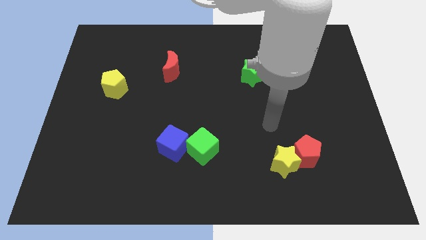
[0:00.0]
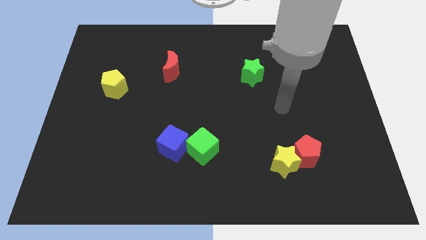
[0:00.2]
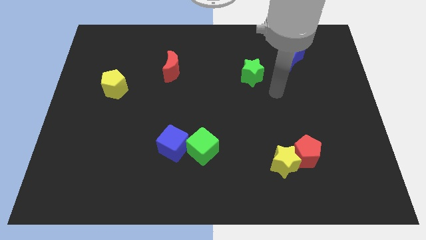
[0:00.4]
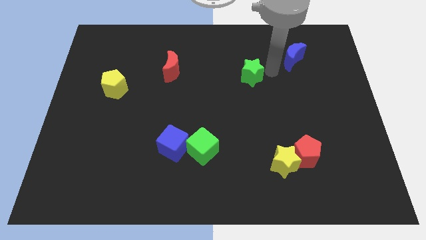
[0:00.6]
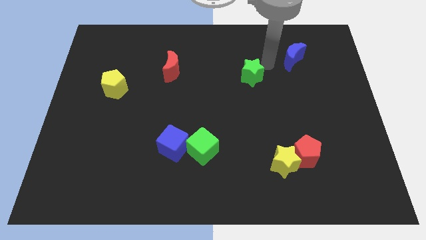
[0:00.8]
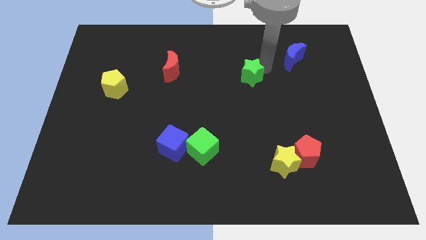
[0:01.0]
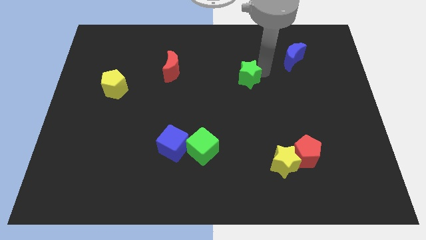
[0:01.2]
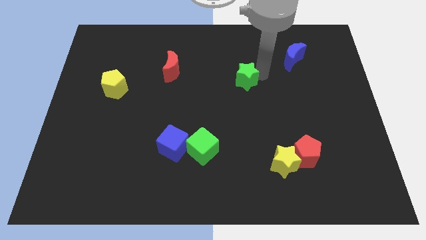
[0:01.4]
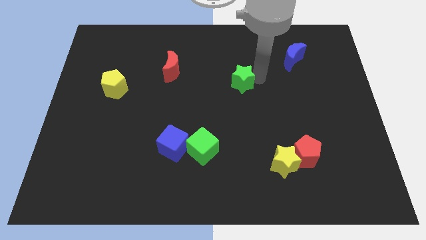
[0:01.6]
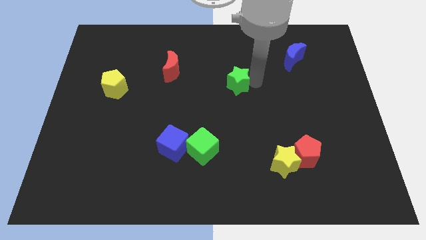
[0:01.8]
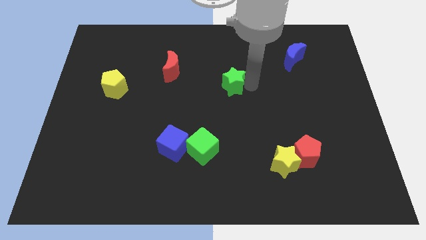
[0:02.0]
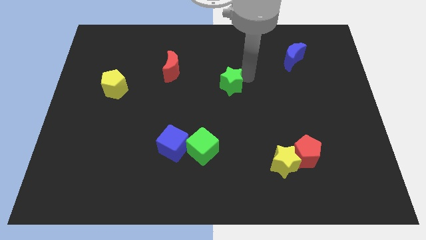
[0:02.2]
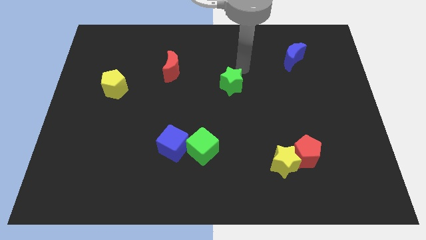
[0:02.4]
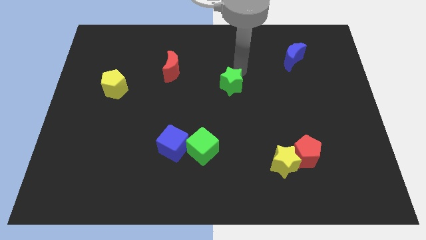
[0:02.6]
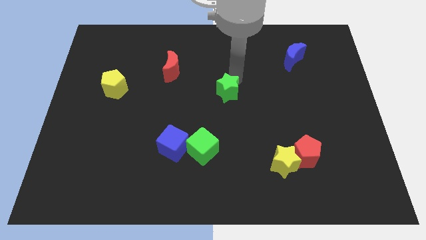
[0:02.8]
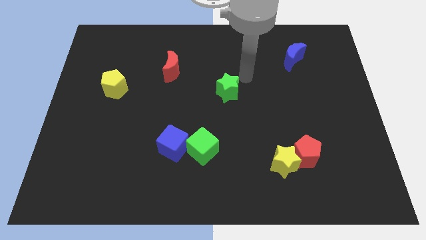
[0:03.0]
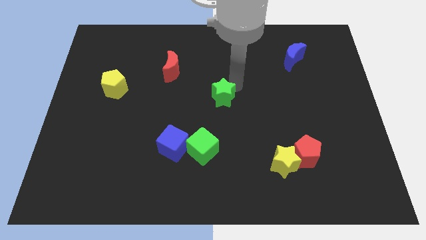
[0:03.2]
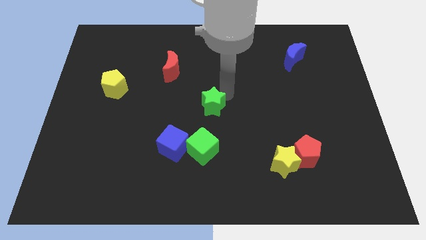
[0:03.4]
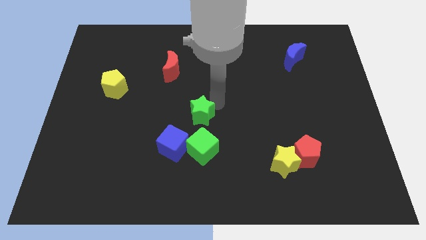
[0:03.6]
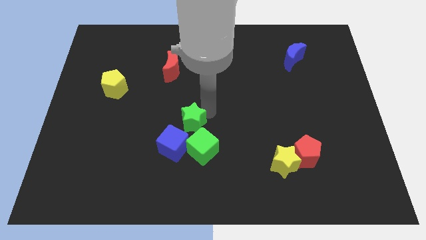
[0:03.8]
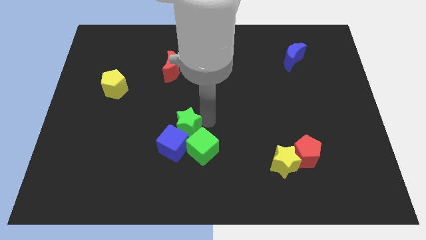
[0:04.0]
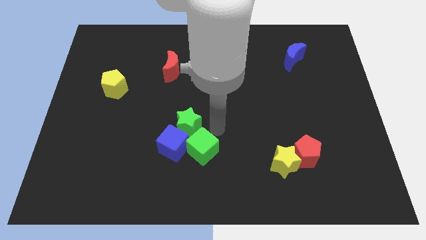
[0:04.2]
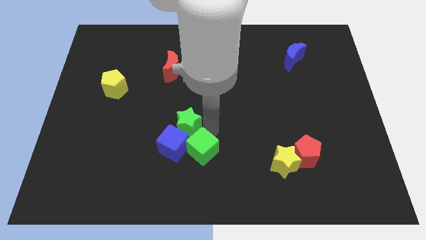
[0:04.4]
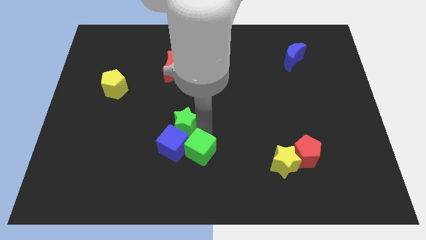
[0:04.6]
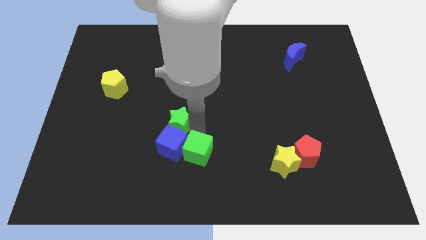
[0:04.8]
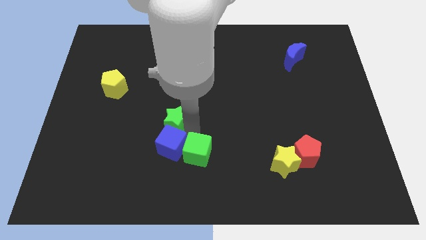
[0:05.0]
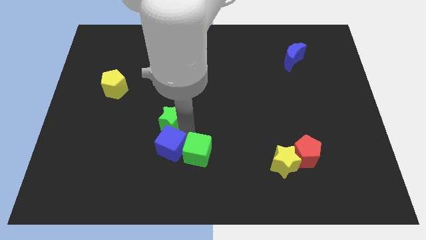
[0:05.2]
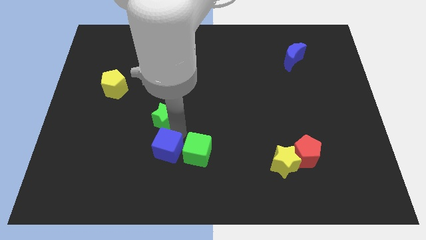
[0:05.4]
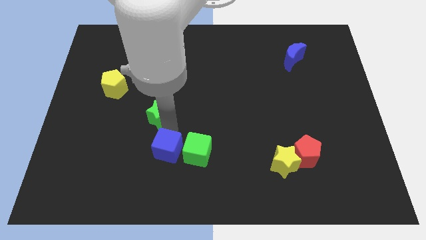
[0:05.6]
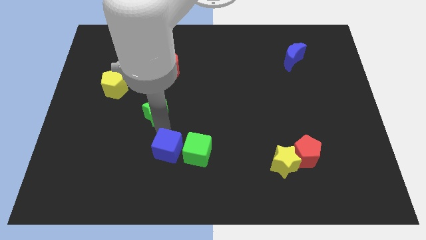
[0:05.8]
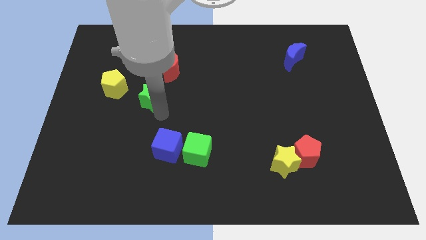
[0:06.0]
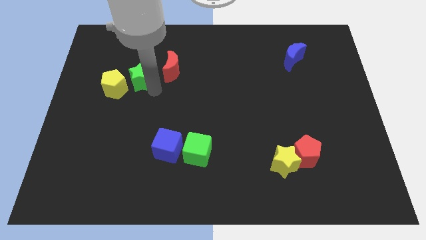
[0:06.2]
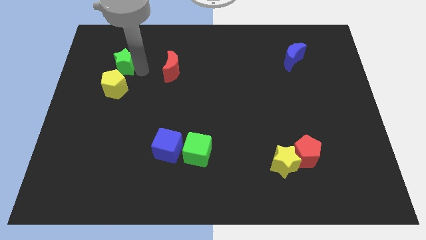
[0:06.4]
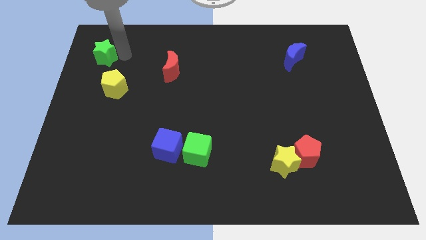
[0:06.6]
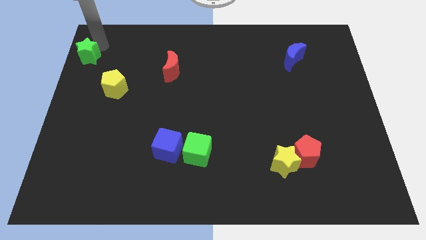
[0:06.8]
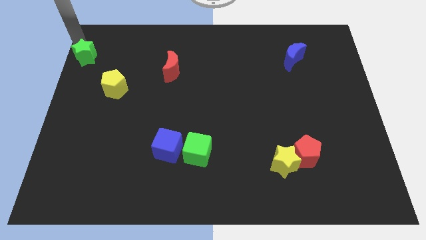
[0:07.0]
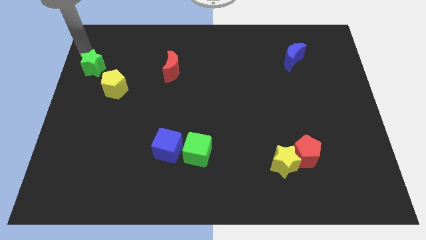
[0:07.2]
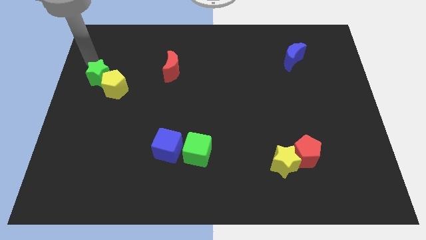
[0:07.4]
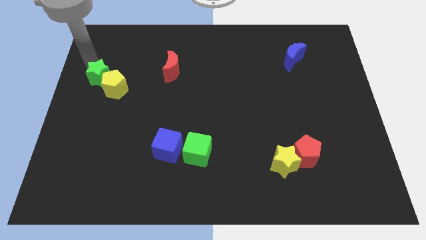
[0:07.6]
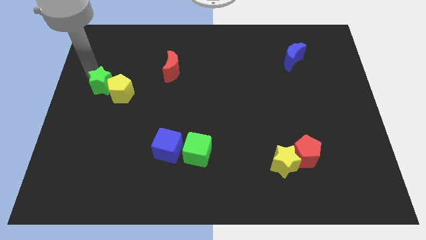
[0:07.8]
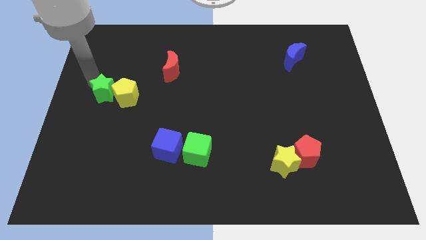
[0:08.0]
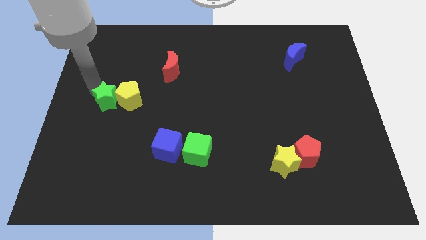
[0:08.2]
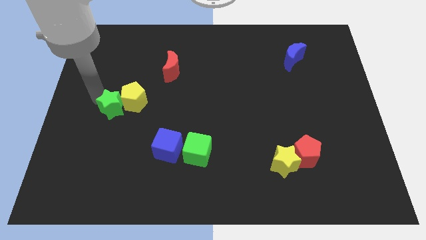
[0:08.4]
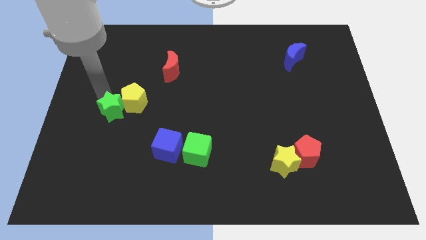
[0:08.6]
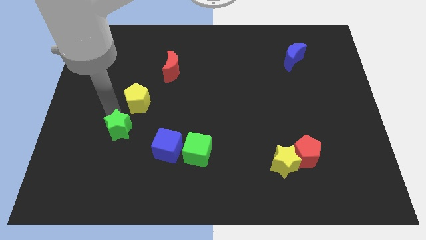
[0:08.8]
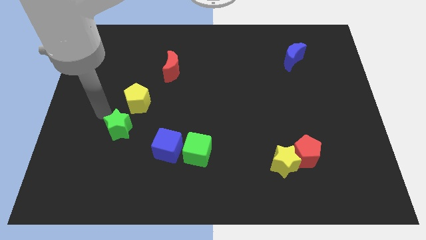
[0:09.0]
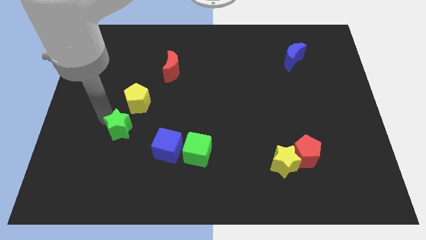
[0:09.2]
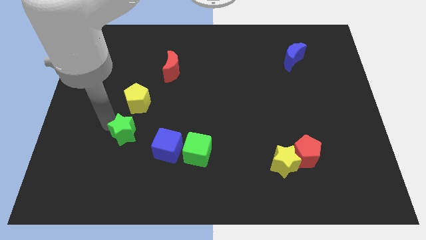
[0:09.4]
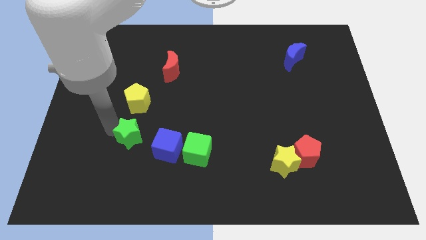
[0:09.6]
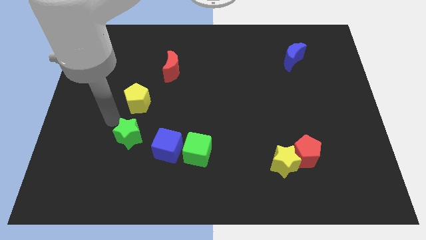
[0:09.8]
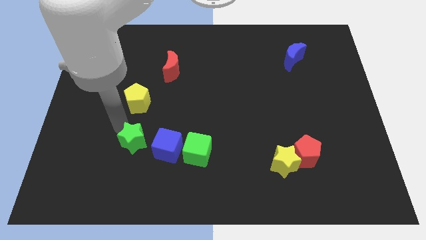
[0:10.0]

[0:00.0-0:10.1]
put the green star to the left of the green cube

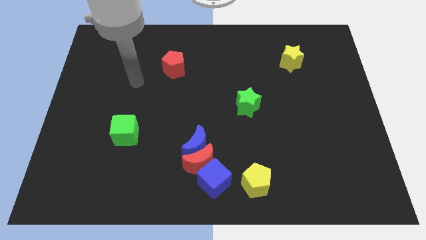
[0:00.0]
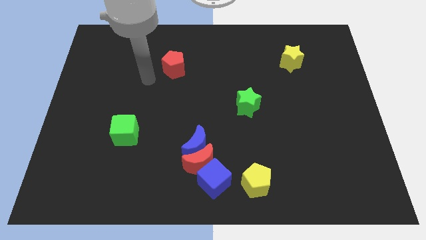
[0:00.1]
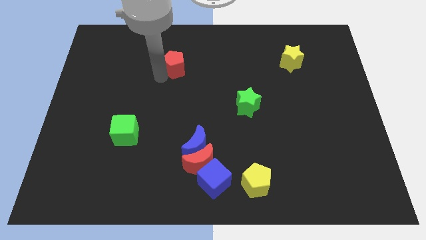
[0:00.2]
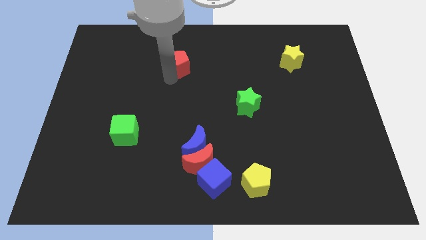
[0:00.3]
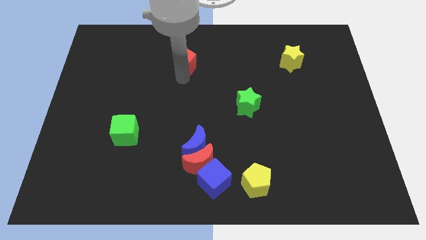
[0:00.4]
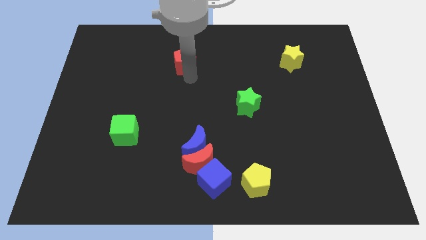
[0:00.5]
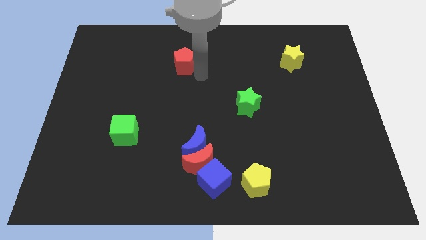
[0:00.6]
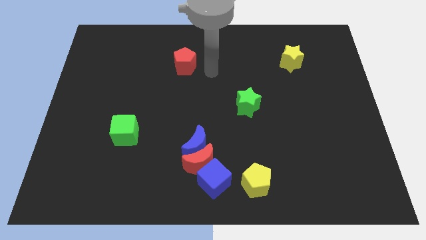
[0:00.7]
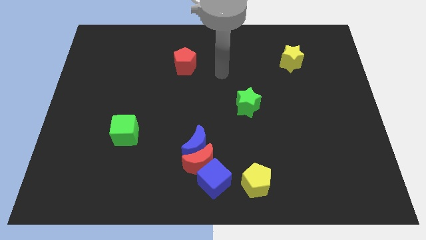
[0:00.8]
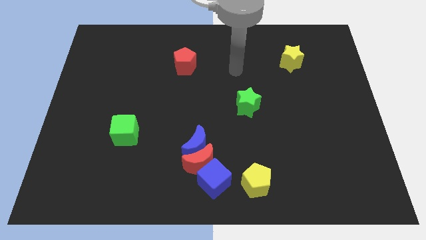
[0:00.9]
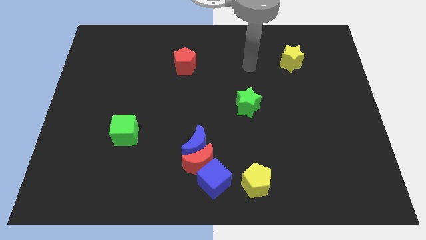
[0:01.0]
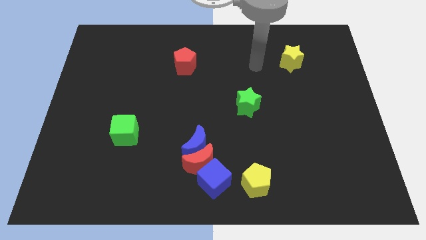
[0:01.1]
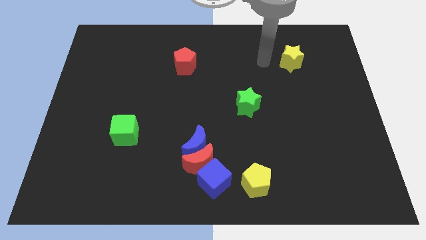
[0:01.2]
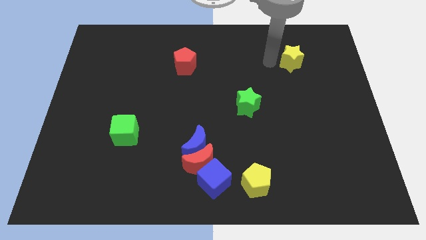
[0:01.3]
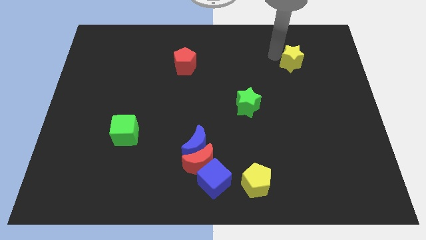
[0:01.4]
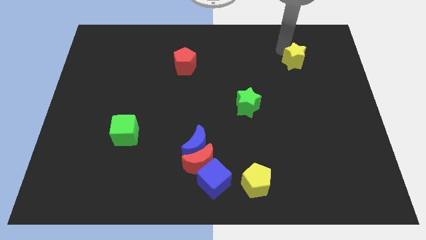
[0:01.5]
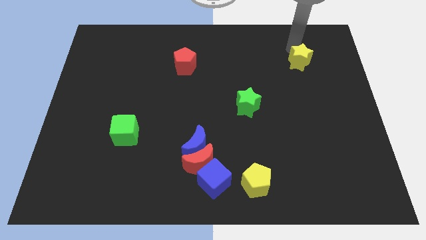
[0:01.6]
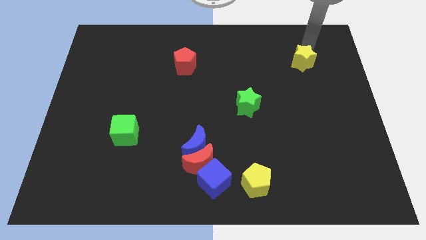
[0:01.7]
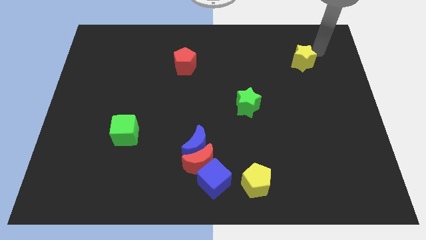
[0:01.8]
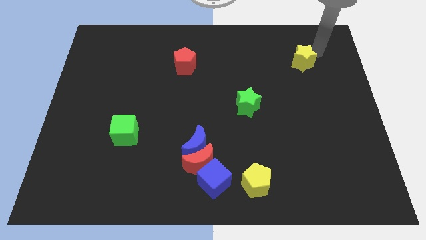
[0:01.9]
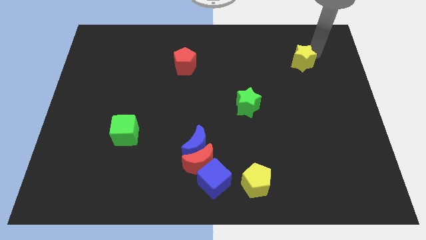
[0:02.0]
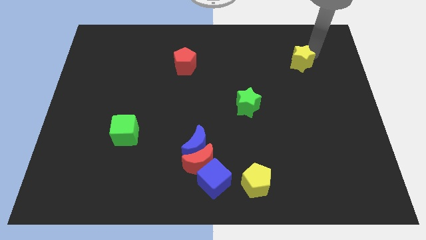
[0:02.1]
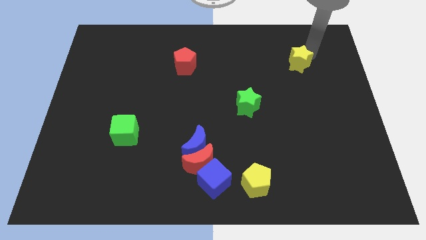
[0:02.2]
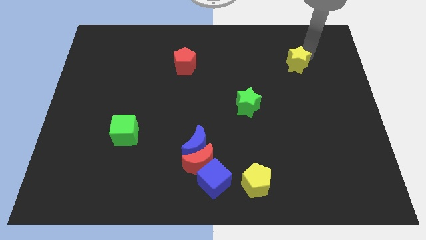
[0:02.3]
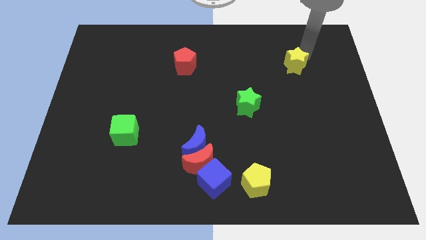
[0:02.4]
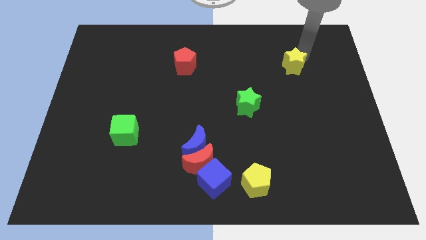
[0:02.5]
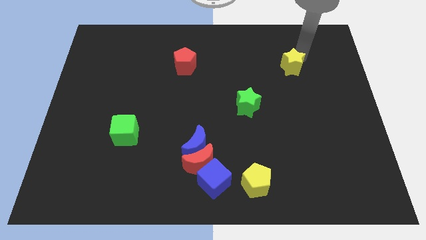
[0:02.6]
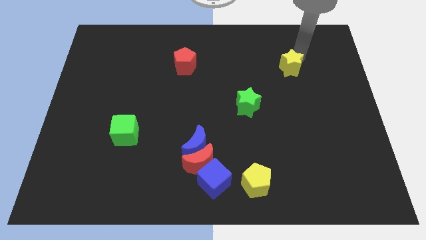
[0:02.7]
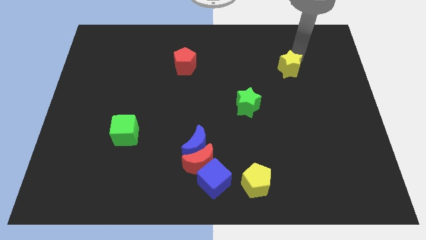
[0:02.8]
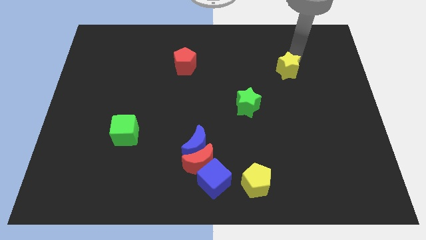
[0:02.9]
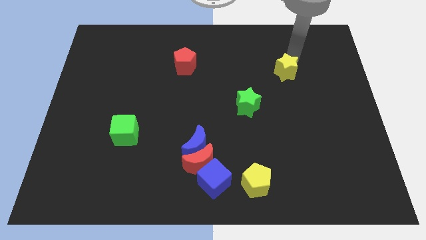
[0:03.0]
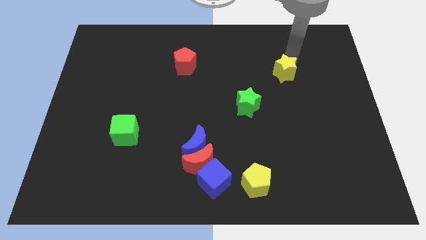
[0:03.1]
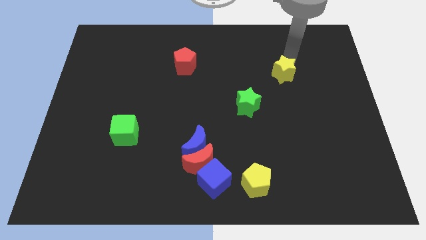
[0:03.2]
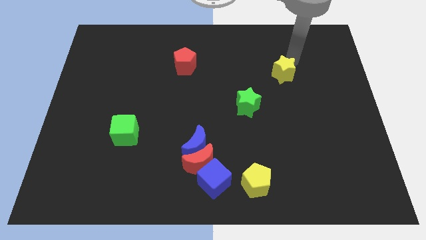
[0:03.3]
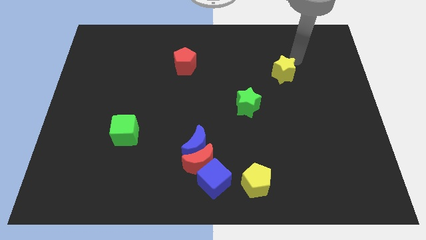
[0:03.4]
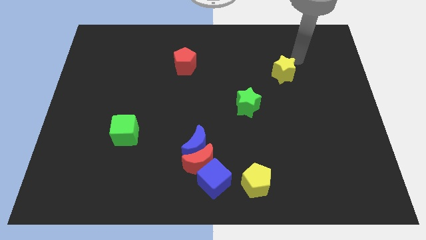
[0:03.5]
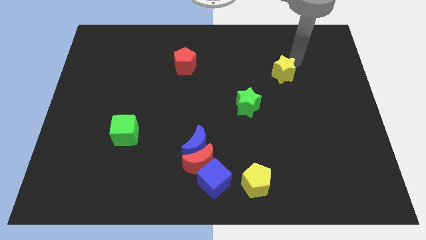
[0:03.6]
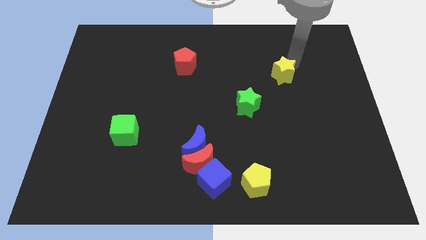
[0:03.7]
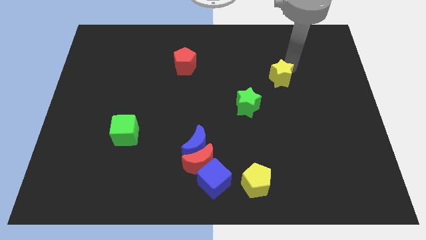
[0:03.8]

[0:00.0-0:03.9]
slide the yellow star to the top right side of the green star
